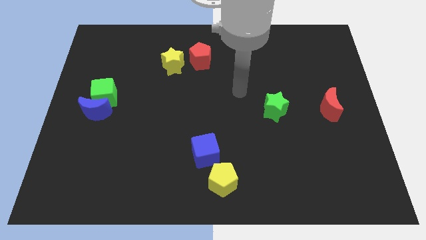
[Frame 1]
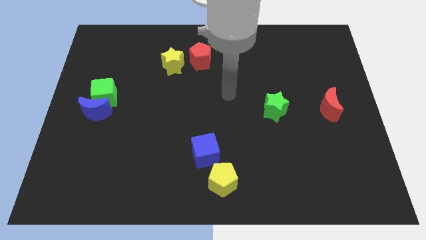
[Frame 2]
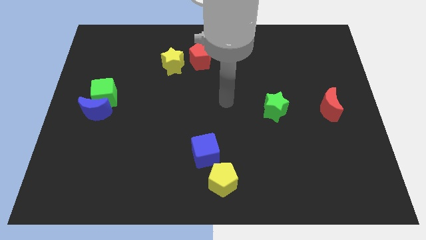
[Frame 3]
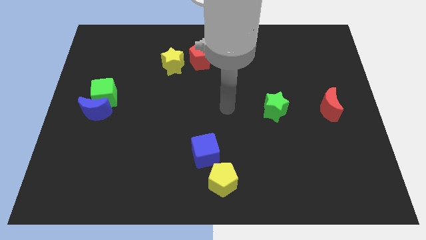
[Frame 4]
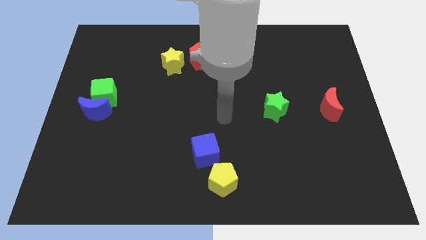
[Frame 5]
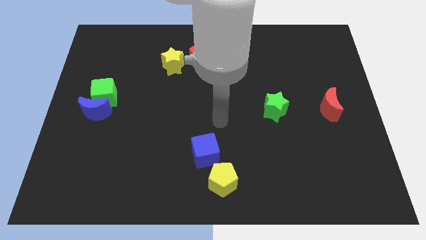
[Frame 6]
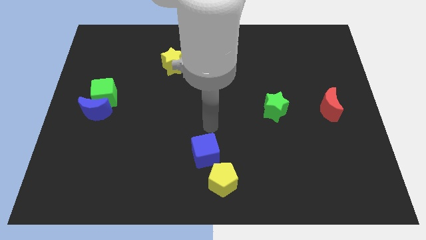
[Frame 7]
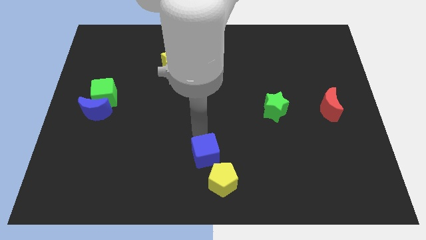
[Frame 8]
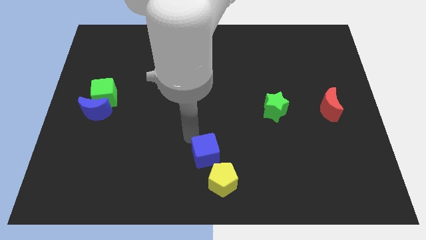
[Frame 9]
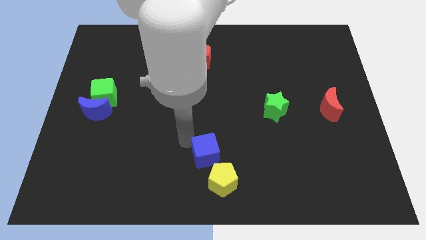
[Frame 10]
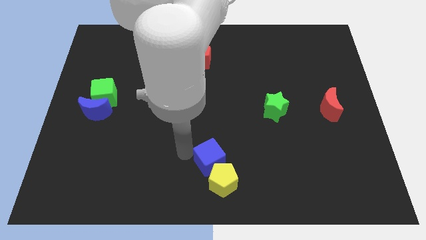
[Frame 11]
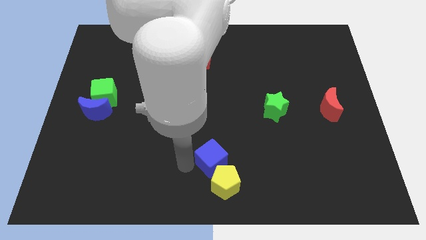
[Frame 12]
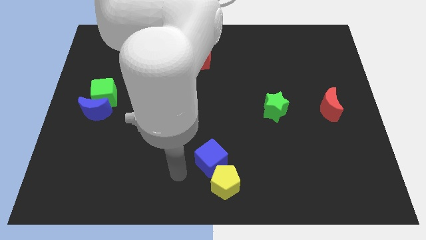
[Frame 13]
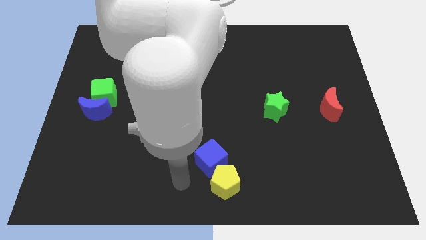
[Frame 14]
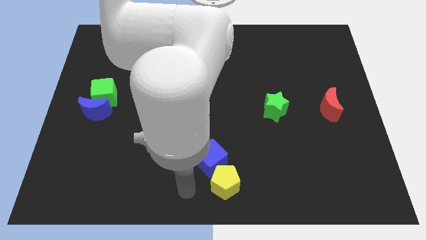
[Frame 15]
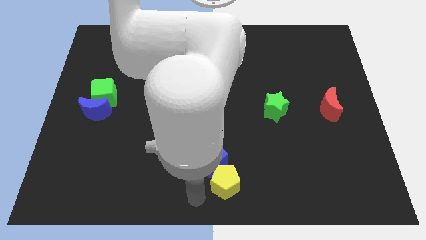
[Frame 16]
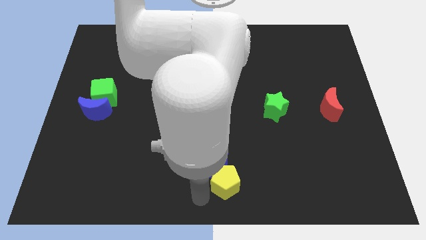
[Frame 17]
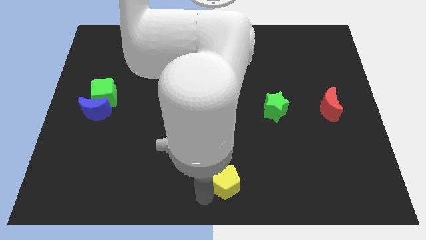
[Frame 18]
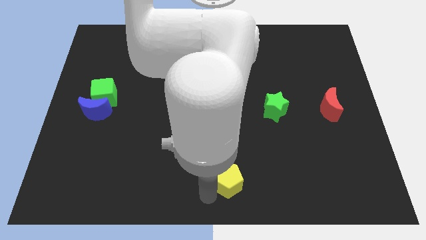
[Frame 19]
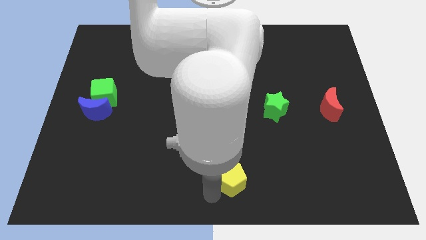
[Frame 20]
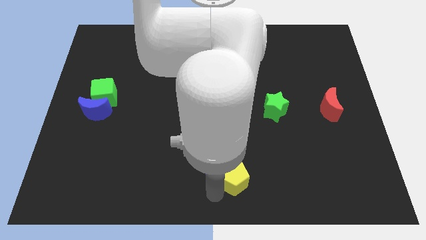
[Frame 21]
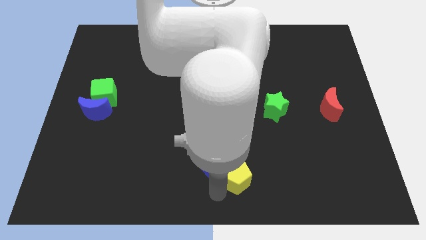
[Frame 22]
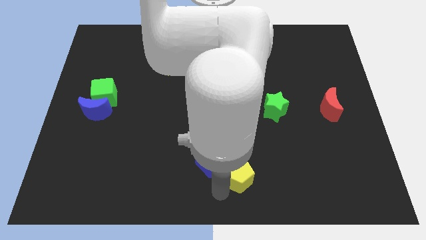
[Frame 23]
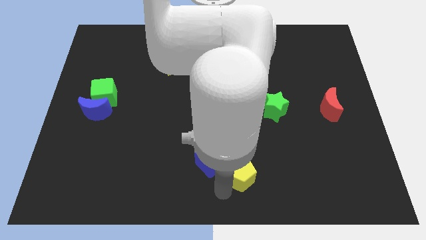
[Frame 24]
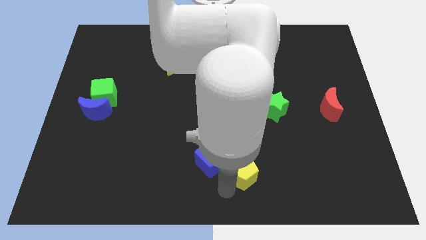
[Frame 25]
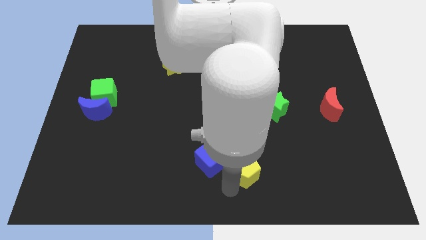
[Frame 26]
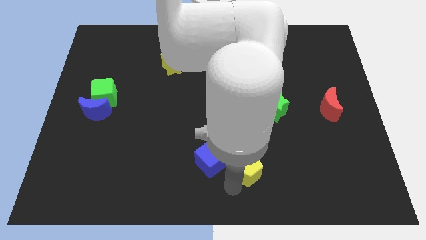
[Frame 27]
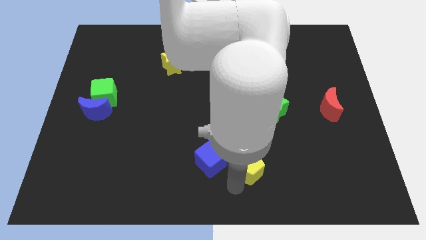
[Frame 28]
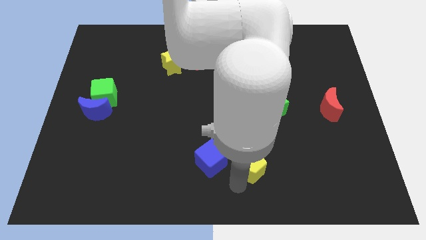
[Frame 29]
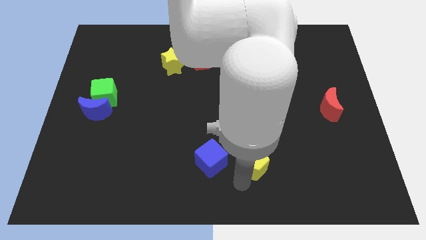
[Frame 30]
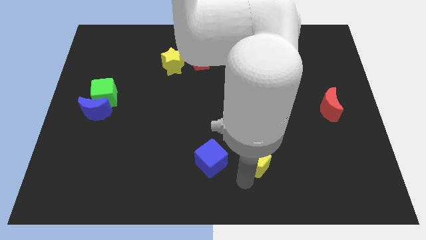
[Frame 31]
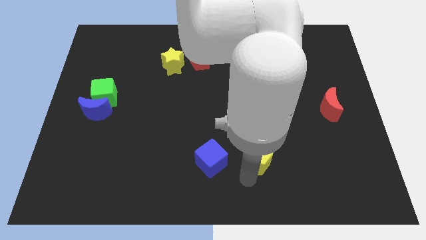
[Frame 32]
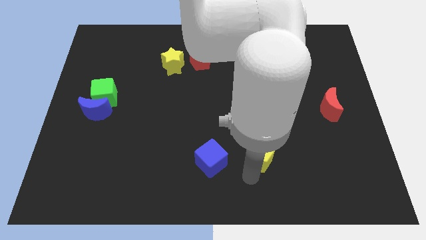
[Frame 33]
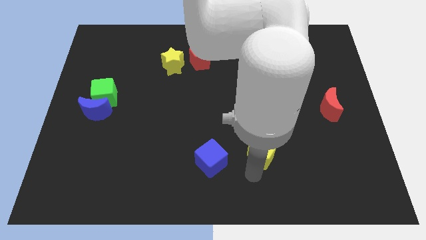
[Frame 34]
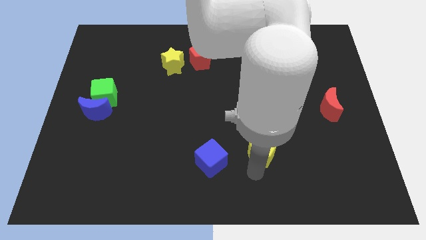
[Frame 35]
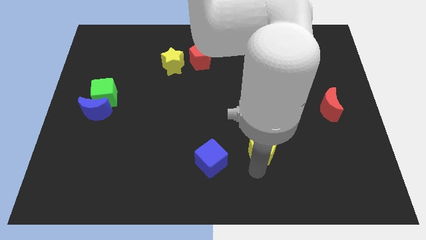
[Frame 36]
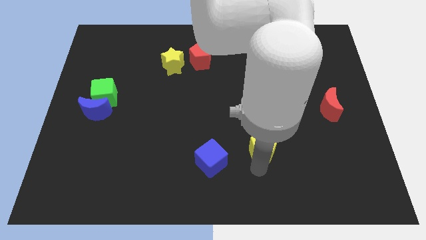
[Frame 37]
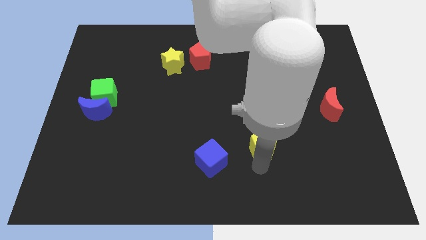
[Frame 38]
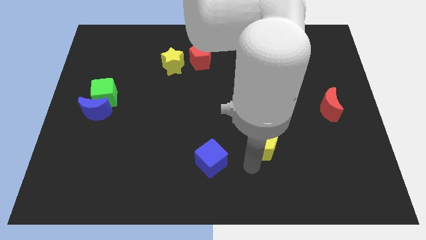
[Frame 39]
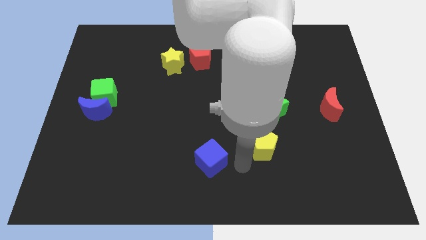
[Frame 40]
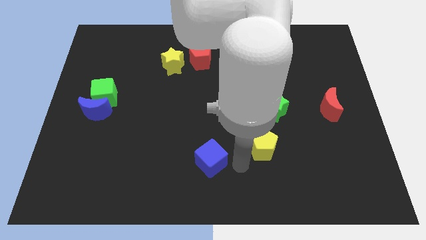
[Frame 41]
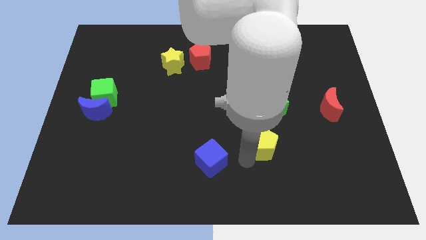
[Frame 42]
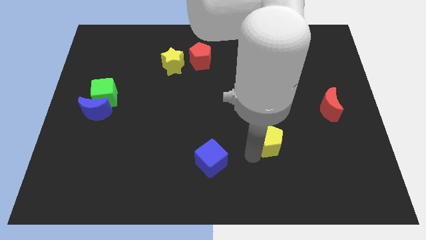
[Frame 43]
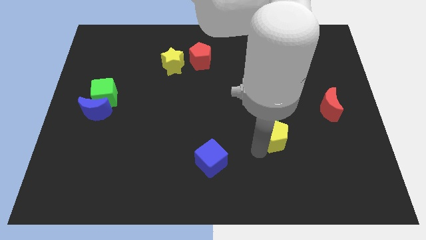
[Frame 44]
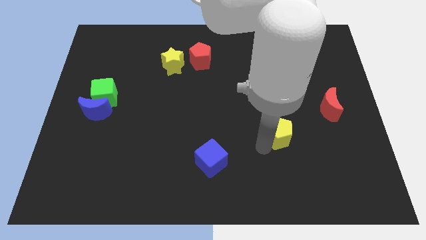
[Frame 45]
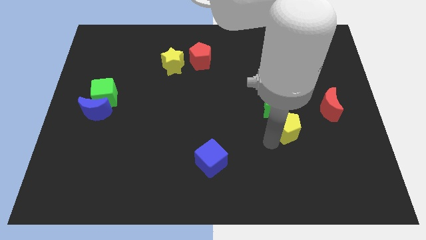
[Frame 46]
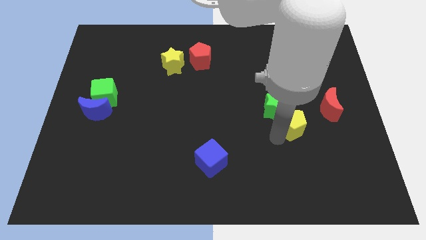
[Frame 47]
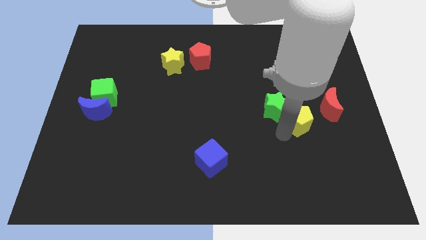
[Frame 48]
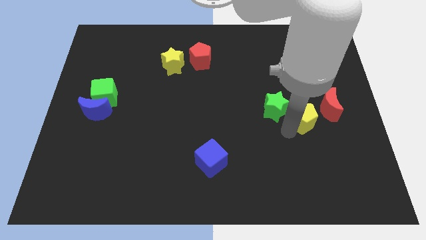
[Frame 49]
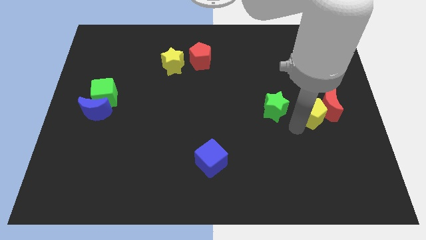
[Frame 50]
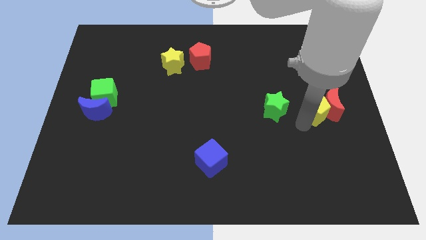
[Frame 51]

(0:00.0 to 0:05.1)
slide the yellow pentagon to the top left of the red moon

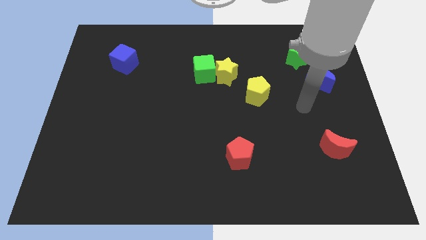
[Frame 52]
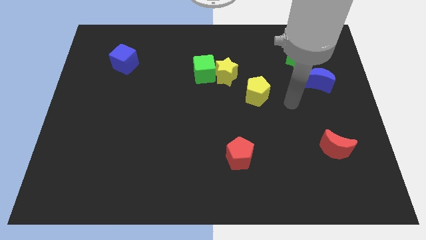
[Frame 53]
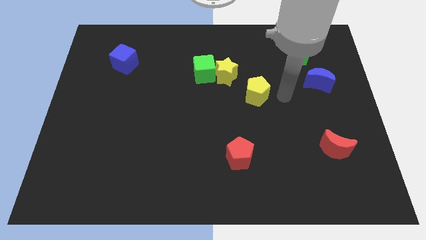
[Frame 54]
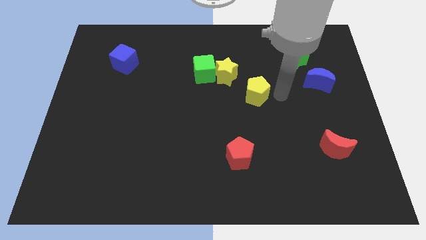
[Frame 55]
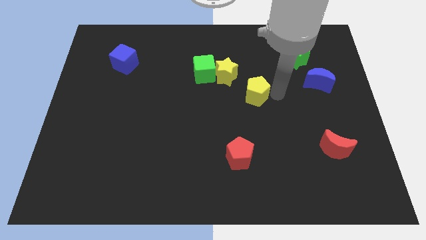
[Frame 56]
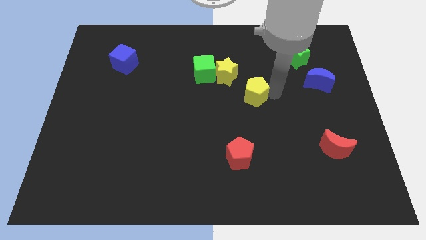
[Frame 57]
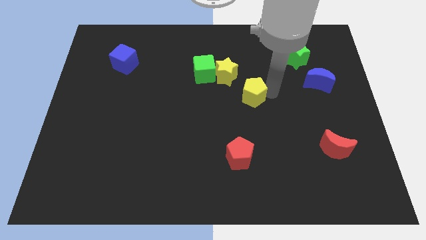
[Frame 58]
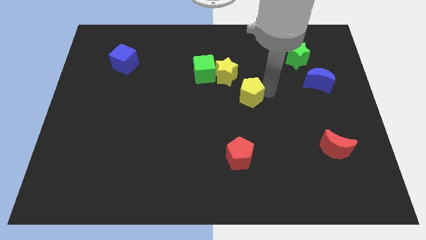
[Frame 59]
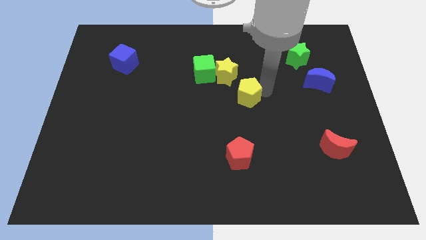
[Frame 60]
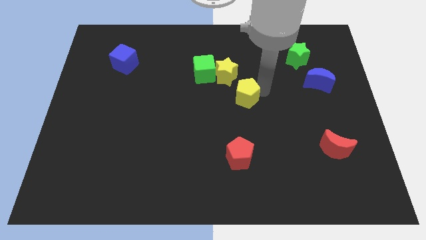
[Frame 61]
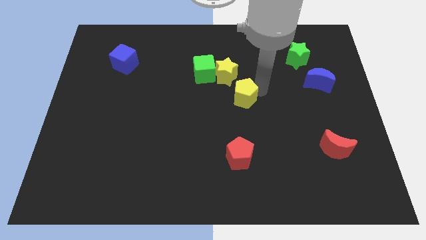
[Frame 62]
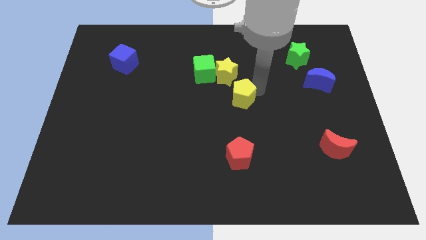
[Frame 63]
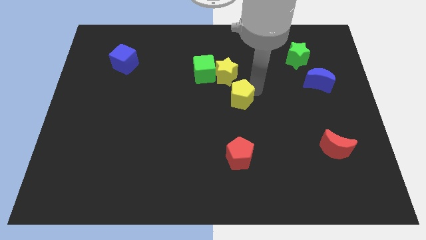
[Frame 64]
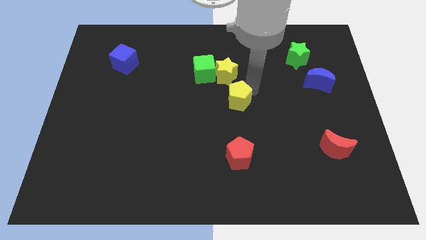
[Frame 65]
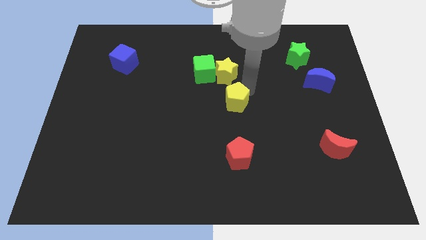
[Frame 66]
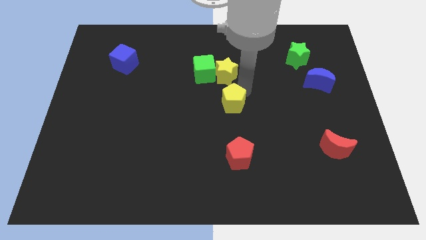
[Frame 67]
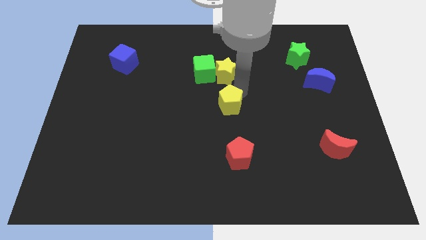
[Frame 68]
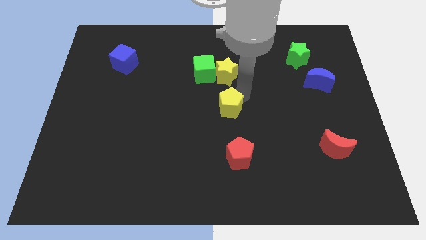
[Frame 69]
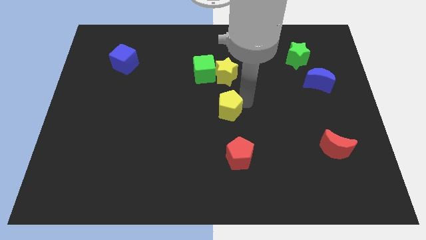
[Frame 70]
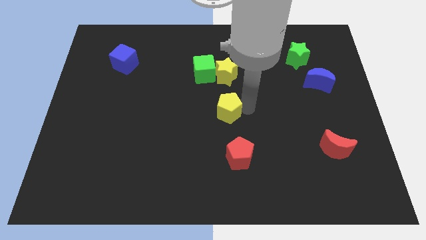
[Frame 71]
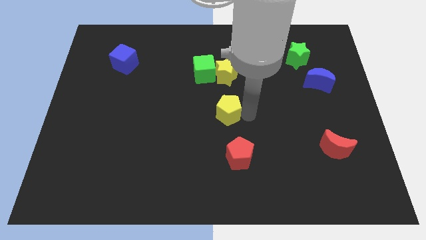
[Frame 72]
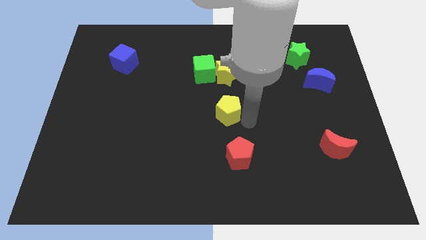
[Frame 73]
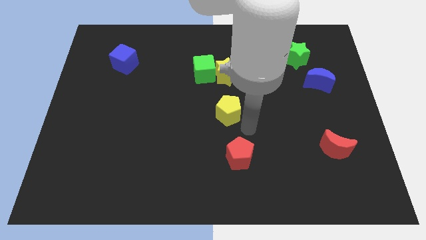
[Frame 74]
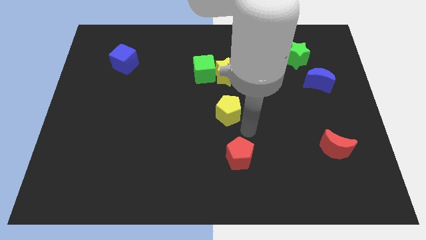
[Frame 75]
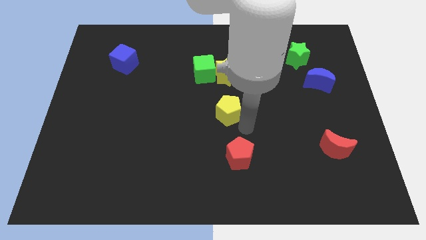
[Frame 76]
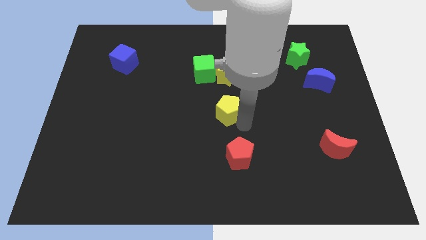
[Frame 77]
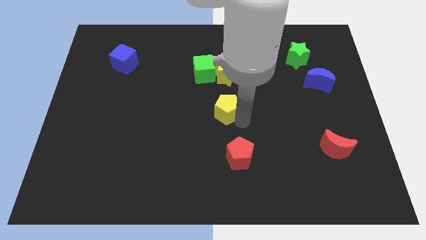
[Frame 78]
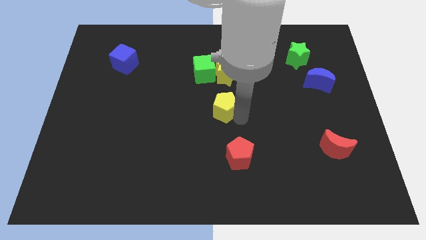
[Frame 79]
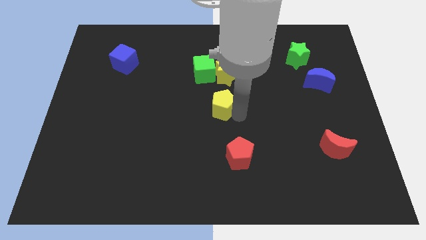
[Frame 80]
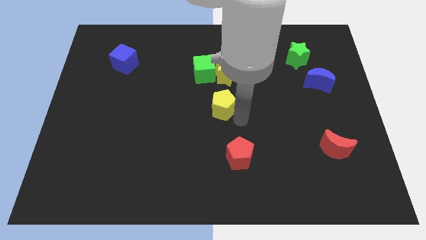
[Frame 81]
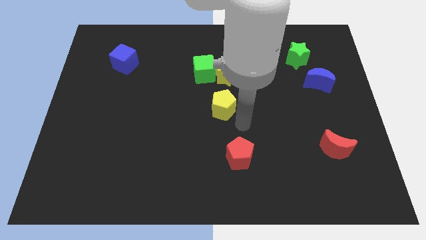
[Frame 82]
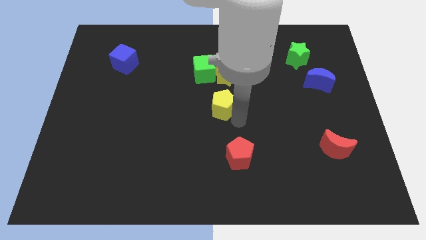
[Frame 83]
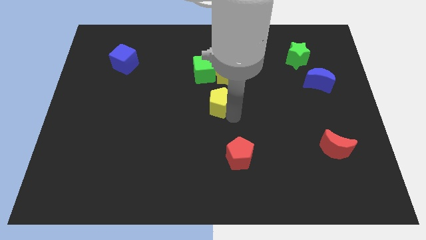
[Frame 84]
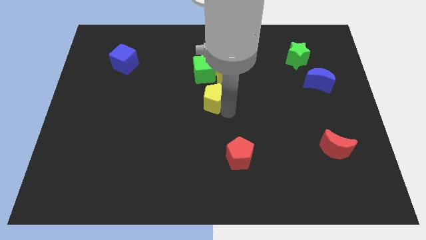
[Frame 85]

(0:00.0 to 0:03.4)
slide the yellow pentagon diagonally down and to the left of the yellow star
